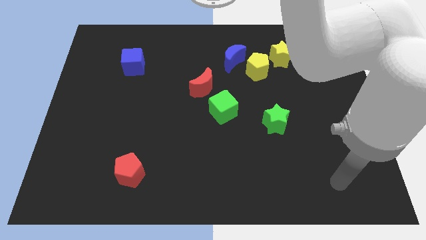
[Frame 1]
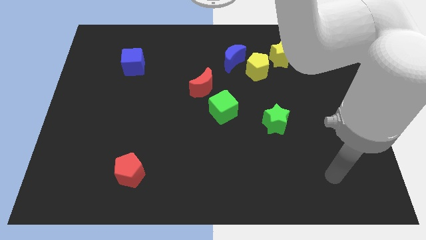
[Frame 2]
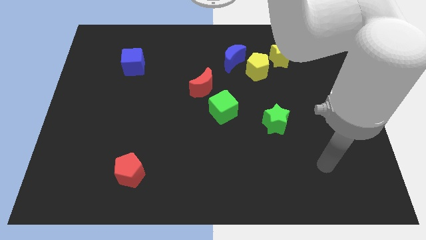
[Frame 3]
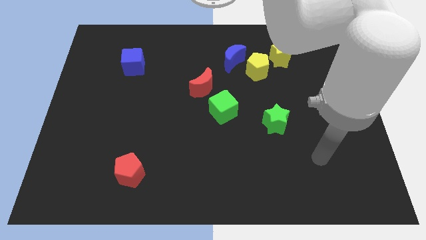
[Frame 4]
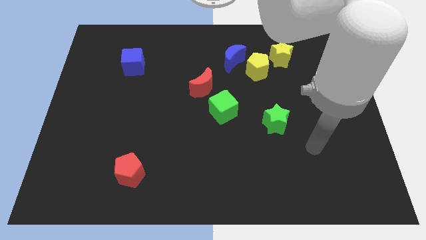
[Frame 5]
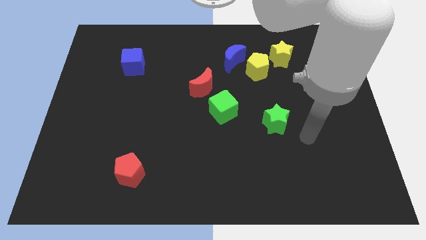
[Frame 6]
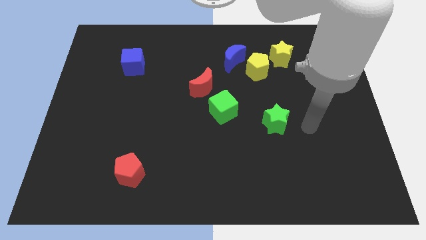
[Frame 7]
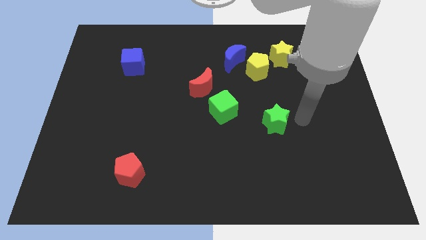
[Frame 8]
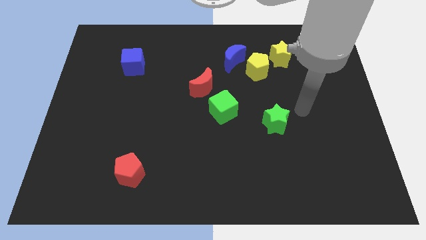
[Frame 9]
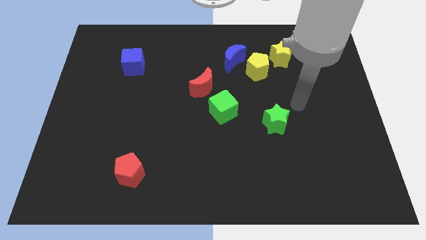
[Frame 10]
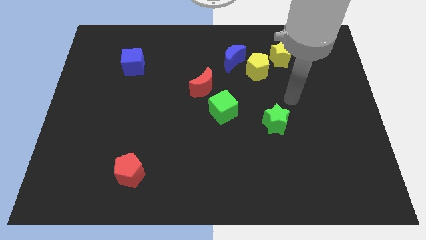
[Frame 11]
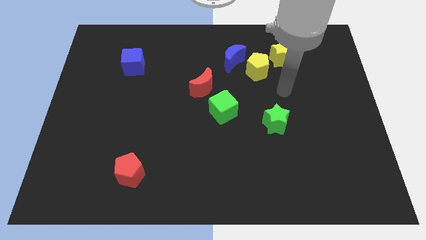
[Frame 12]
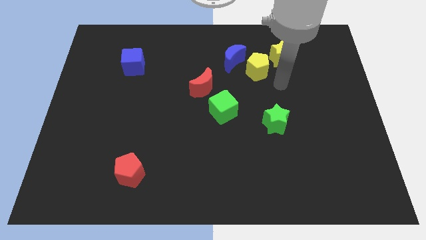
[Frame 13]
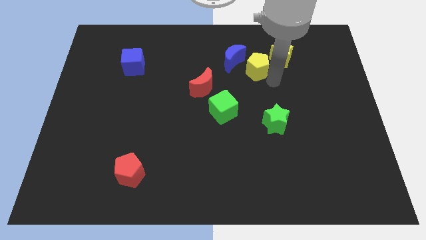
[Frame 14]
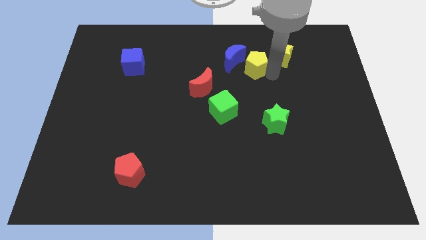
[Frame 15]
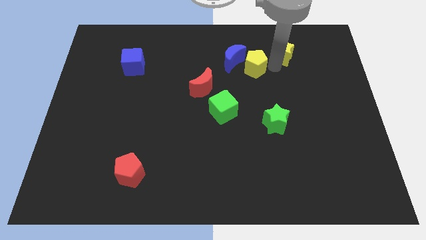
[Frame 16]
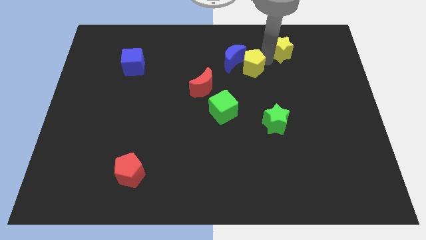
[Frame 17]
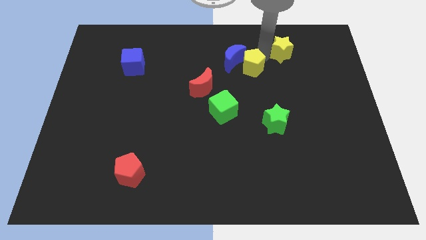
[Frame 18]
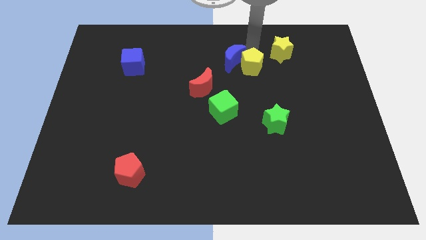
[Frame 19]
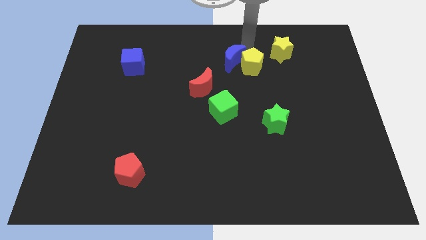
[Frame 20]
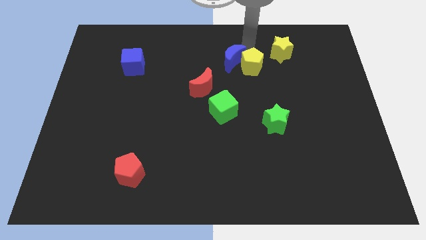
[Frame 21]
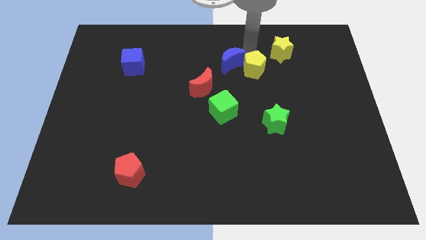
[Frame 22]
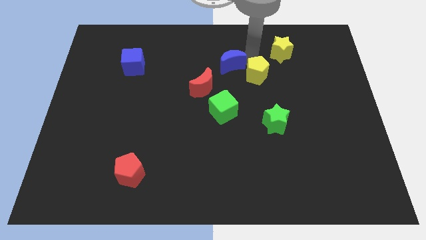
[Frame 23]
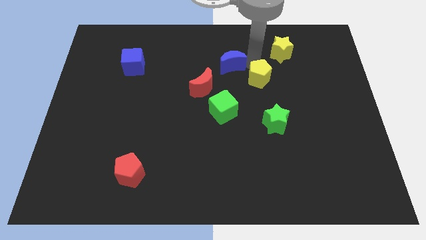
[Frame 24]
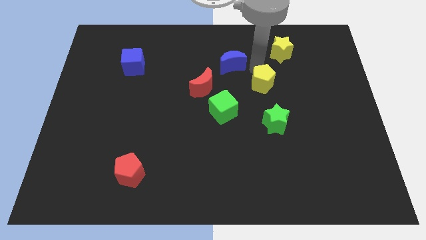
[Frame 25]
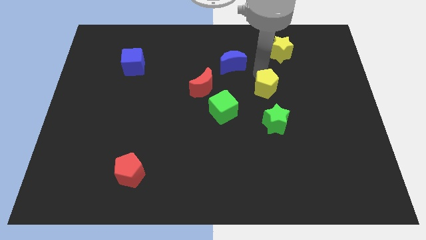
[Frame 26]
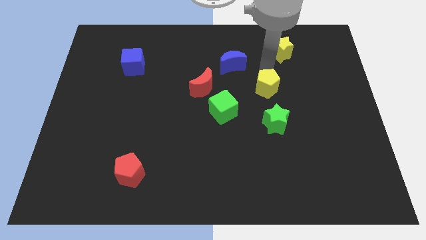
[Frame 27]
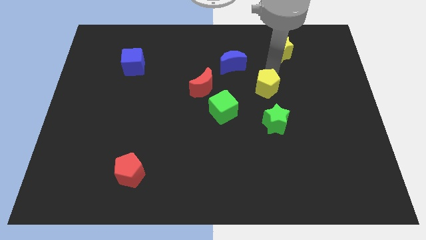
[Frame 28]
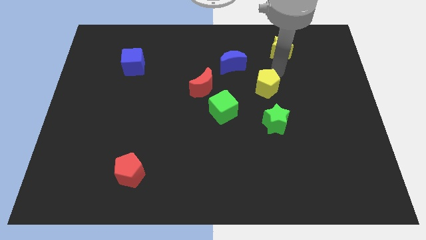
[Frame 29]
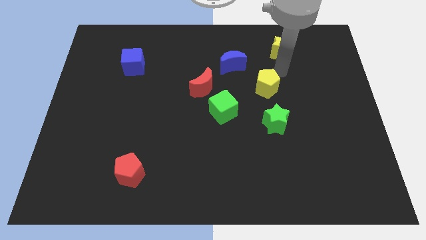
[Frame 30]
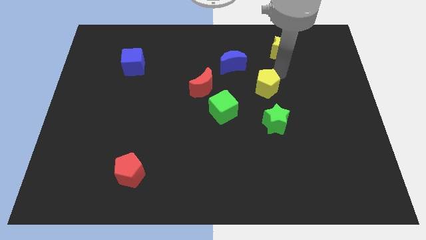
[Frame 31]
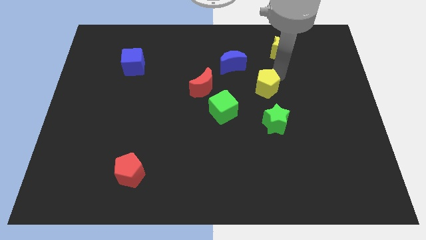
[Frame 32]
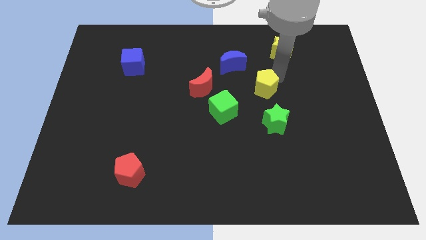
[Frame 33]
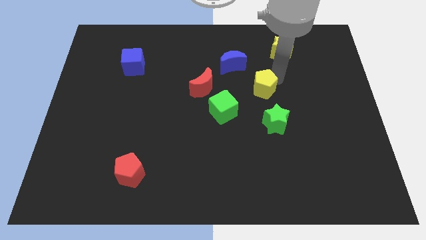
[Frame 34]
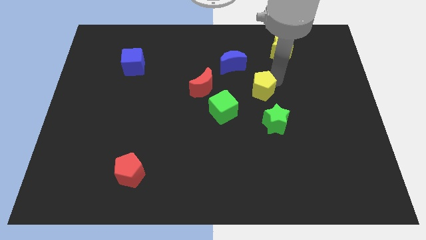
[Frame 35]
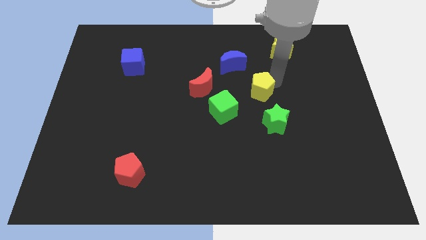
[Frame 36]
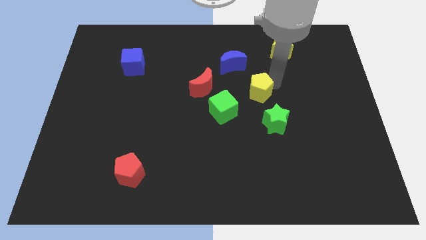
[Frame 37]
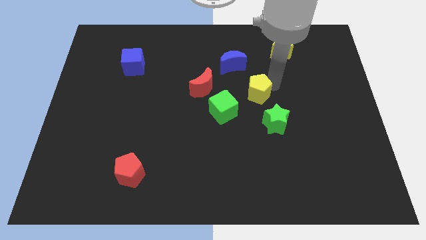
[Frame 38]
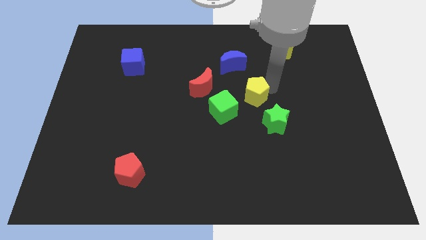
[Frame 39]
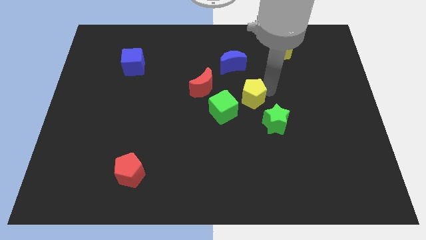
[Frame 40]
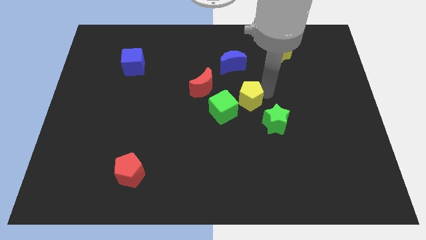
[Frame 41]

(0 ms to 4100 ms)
slide the yellow pentagon a bit downwards and to the left

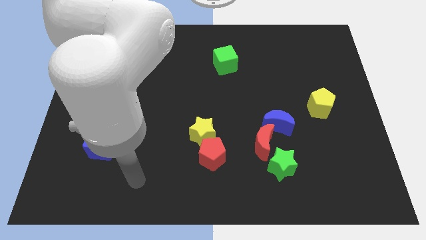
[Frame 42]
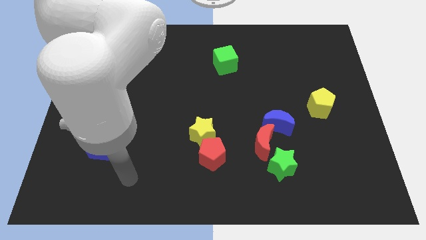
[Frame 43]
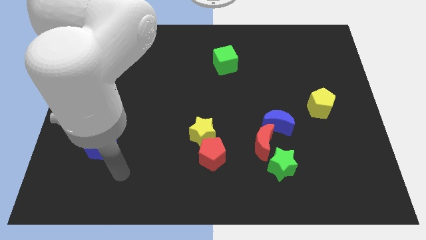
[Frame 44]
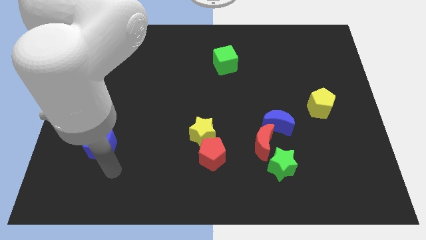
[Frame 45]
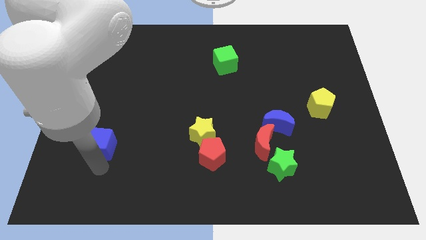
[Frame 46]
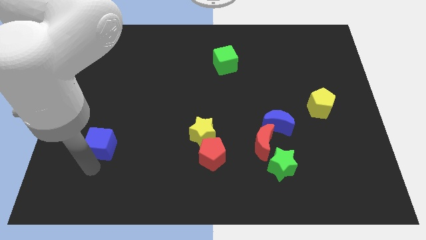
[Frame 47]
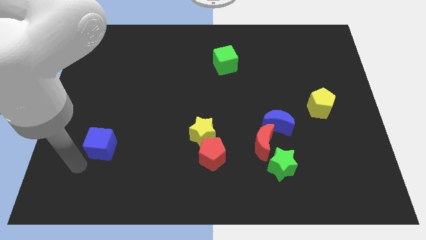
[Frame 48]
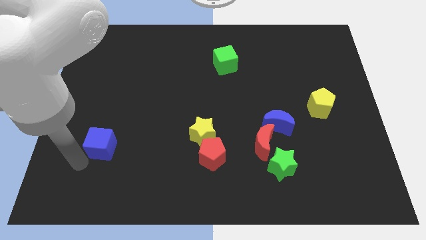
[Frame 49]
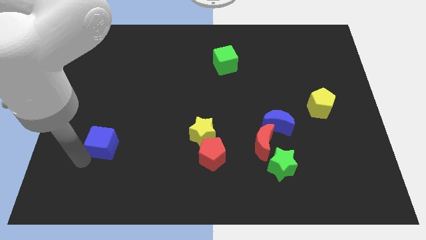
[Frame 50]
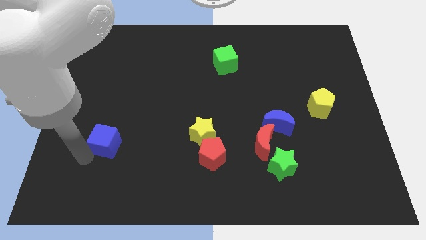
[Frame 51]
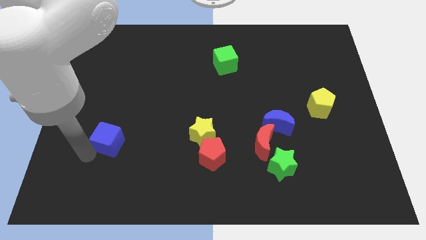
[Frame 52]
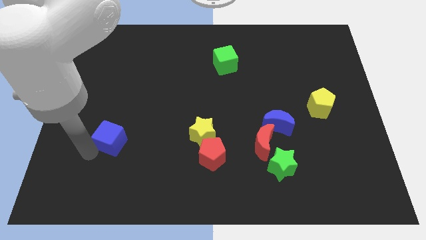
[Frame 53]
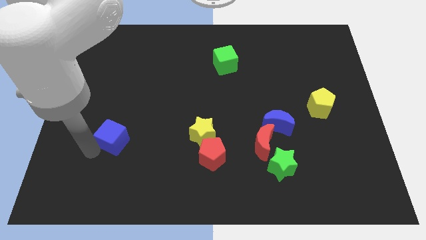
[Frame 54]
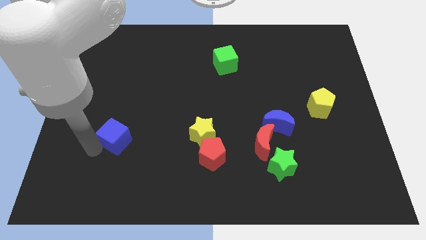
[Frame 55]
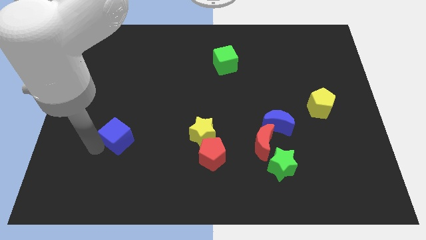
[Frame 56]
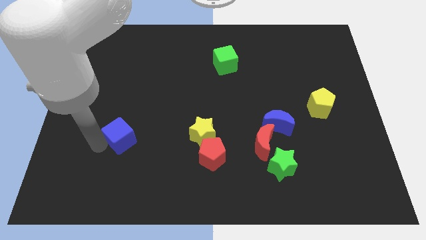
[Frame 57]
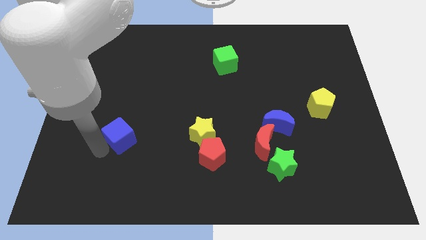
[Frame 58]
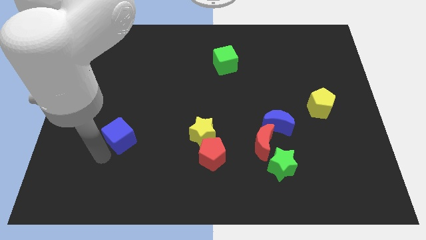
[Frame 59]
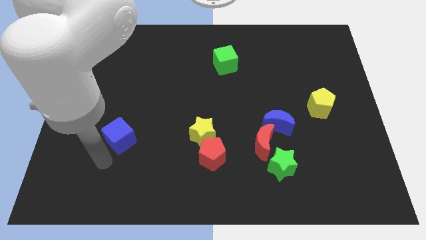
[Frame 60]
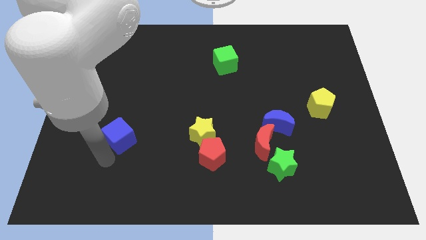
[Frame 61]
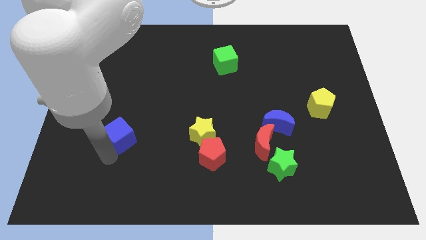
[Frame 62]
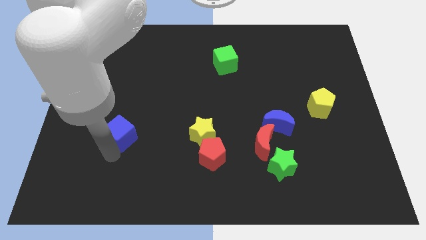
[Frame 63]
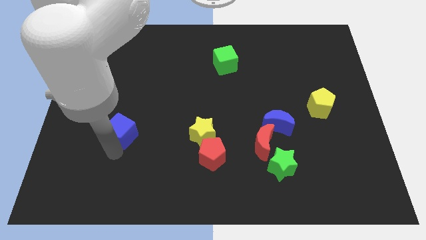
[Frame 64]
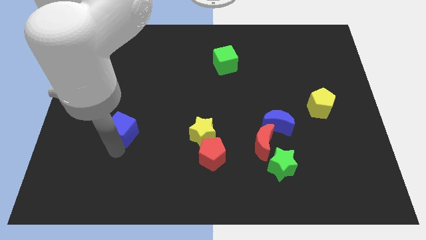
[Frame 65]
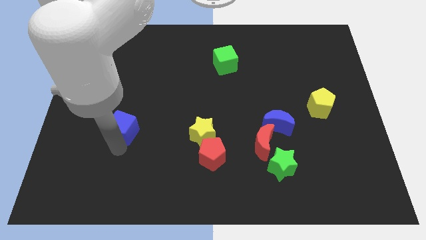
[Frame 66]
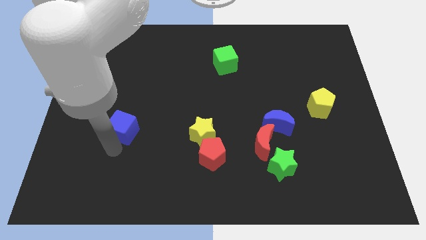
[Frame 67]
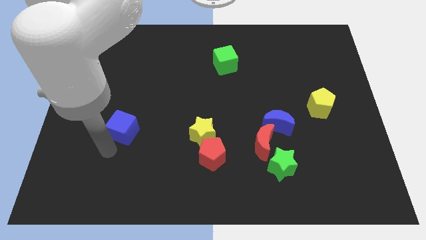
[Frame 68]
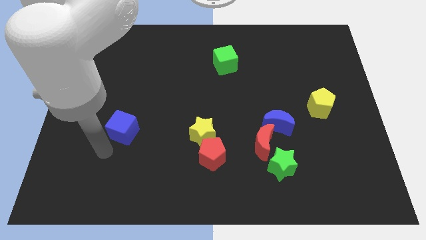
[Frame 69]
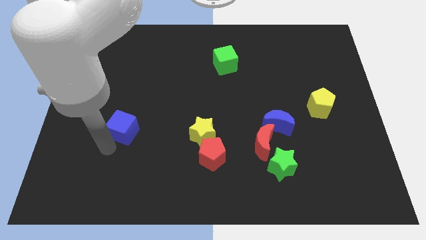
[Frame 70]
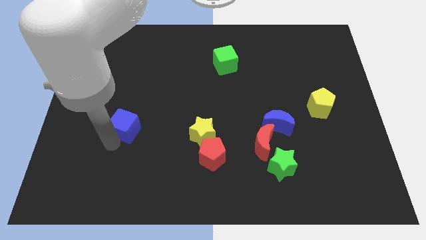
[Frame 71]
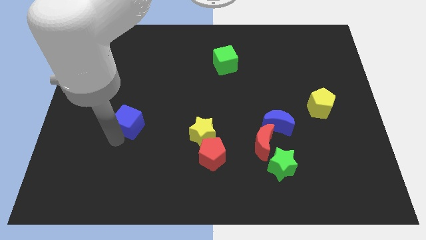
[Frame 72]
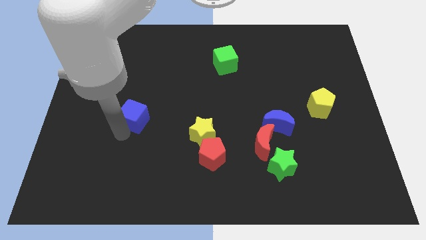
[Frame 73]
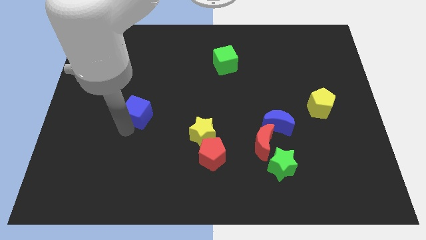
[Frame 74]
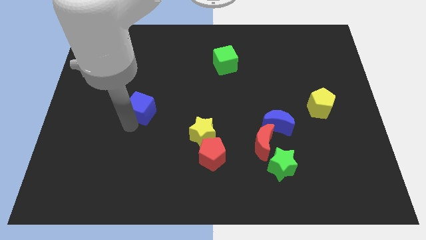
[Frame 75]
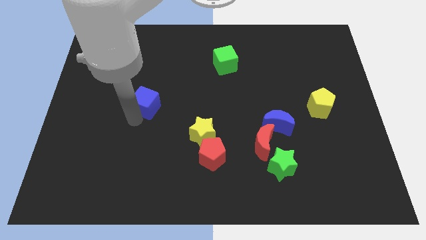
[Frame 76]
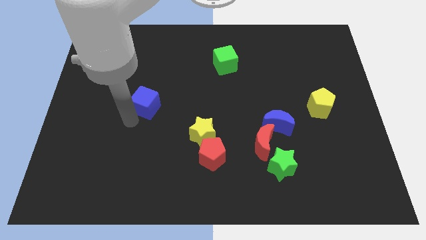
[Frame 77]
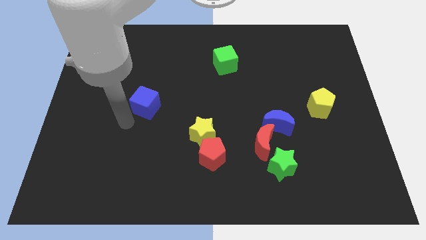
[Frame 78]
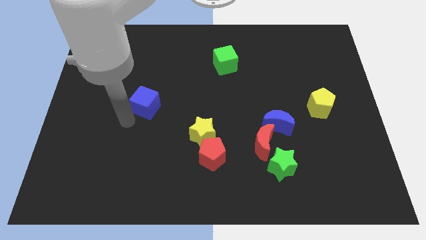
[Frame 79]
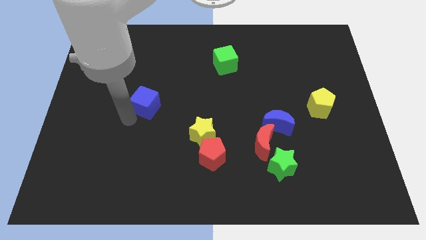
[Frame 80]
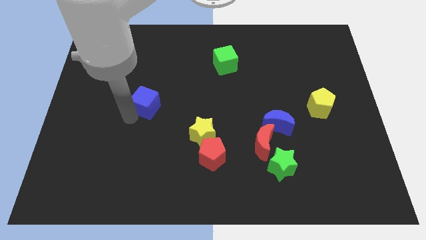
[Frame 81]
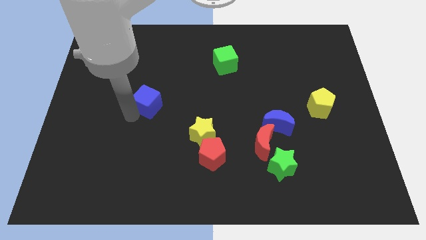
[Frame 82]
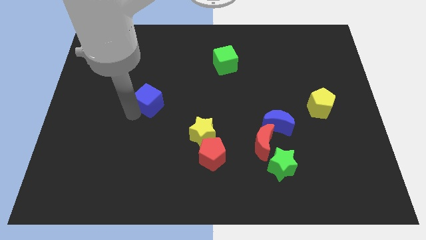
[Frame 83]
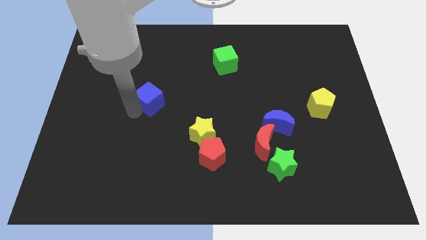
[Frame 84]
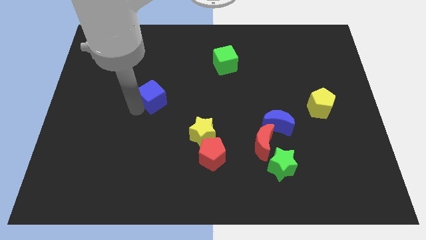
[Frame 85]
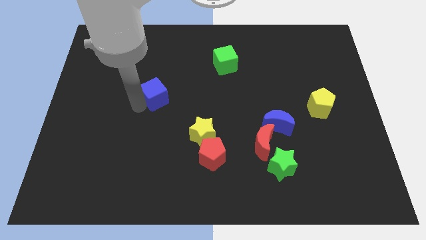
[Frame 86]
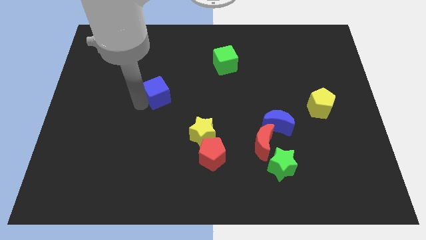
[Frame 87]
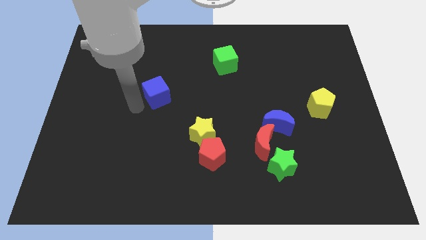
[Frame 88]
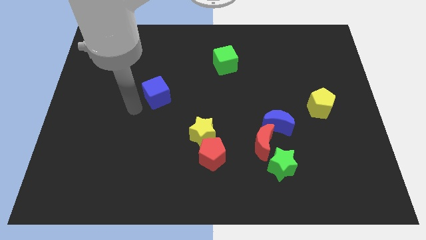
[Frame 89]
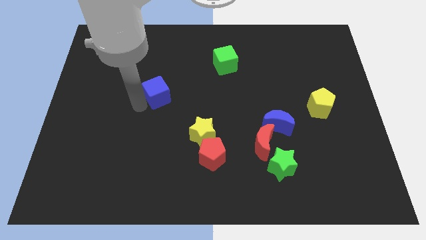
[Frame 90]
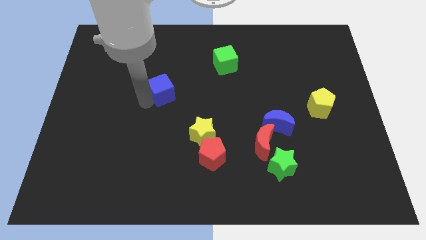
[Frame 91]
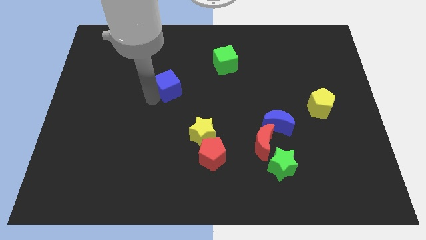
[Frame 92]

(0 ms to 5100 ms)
push the blue cube diagonally upwards and to the right
